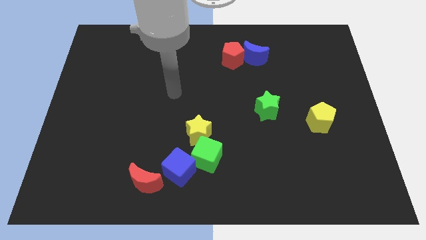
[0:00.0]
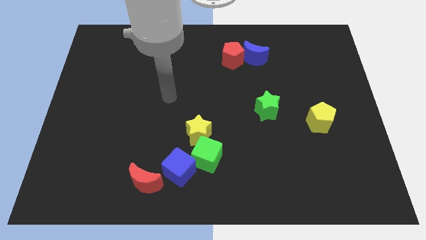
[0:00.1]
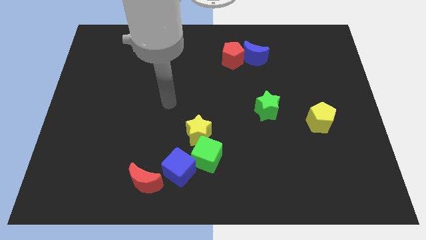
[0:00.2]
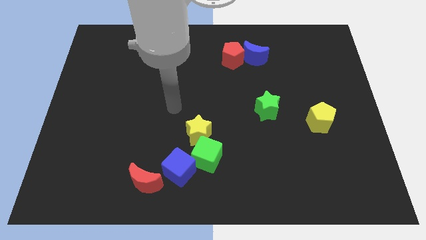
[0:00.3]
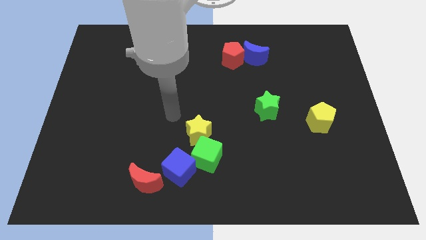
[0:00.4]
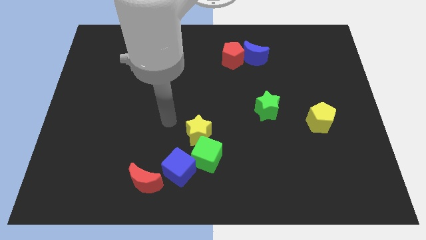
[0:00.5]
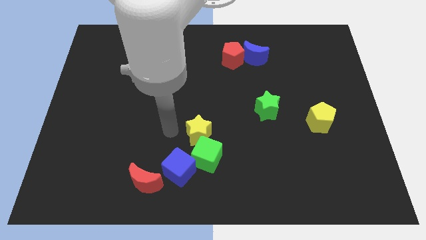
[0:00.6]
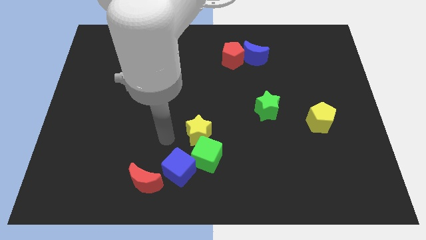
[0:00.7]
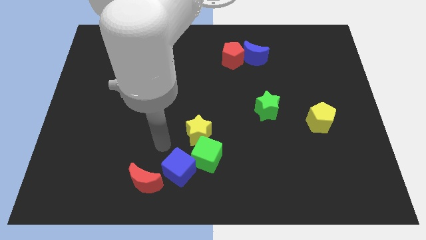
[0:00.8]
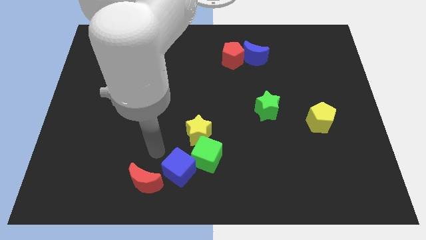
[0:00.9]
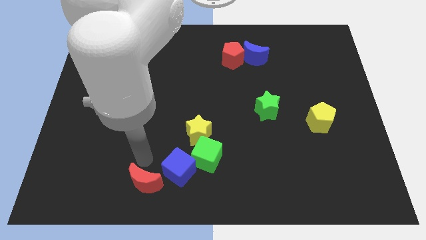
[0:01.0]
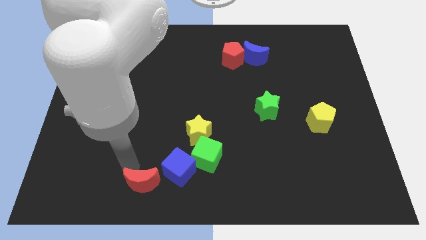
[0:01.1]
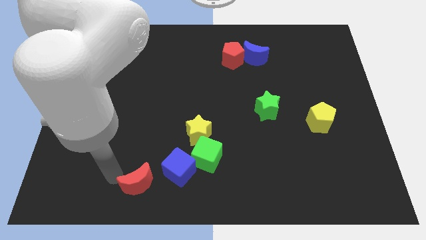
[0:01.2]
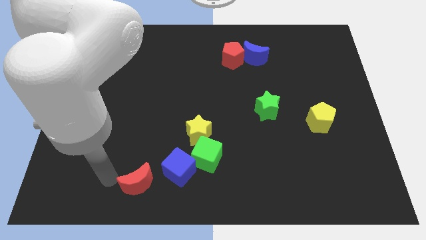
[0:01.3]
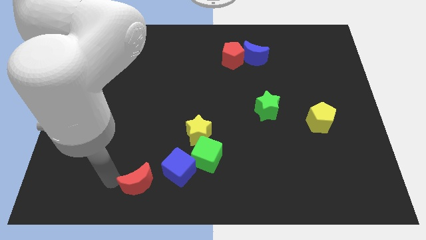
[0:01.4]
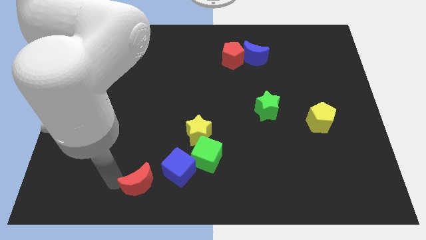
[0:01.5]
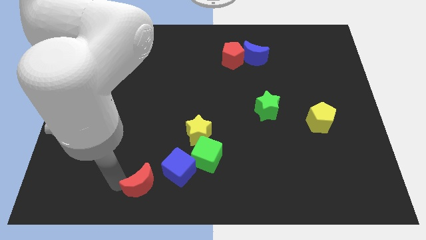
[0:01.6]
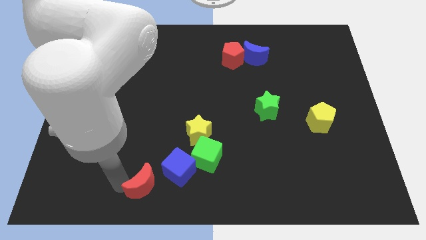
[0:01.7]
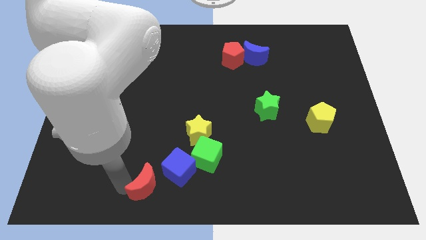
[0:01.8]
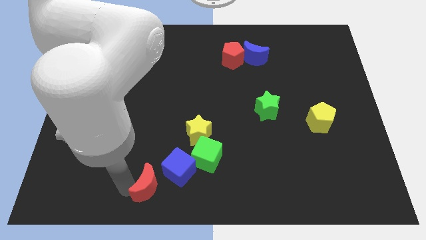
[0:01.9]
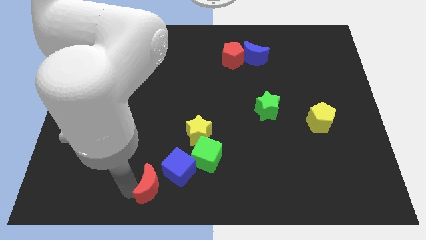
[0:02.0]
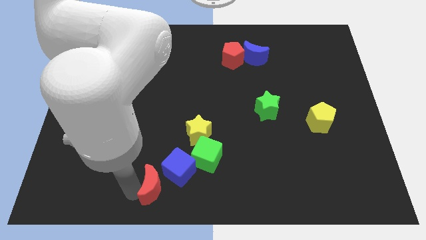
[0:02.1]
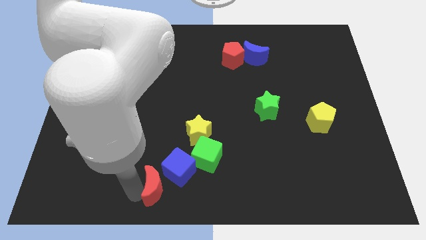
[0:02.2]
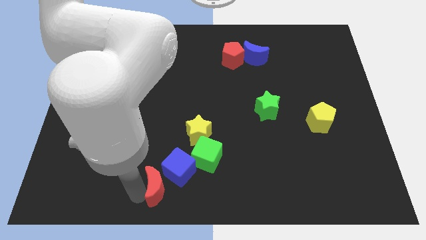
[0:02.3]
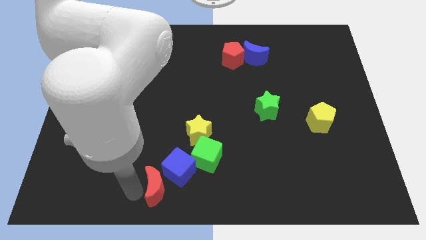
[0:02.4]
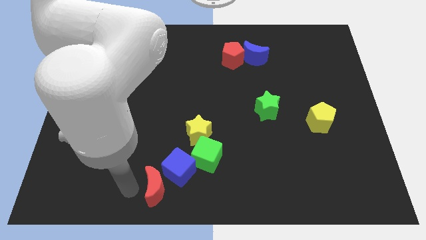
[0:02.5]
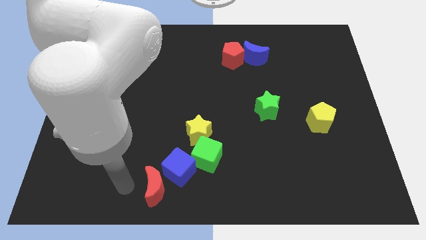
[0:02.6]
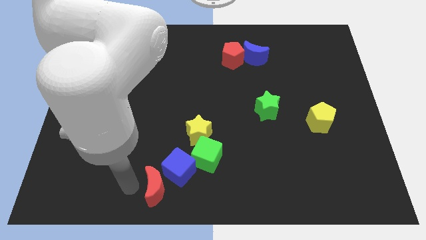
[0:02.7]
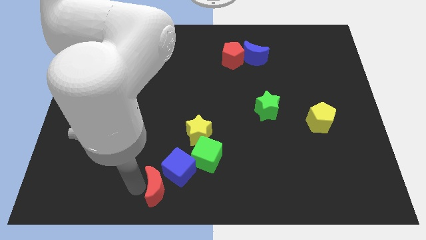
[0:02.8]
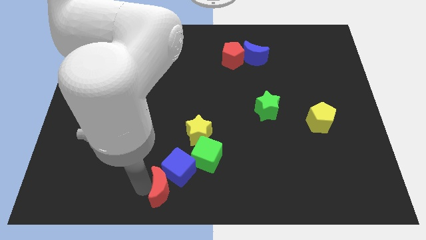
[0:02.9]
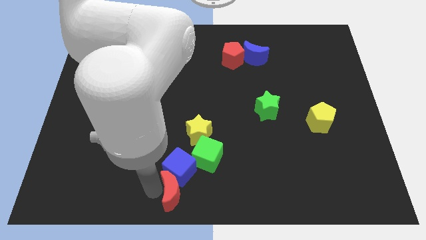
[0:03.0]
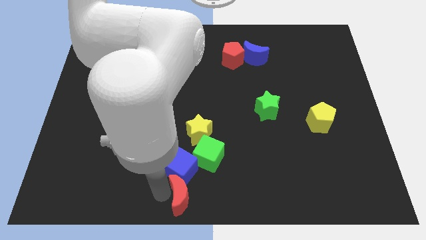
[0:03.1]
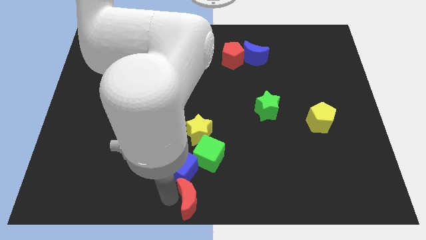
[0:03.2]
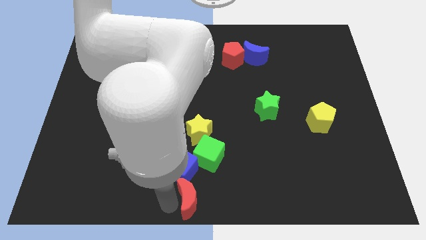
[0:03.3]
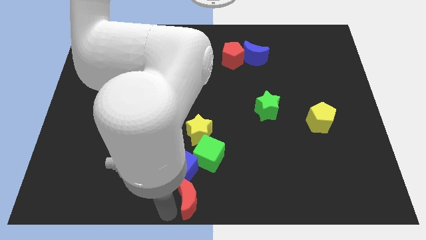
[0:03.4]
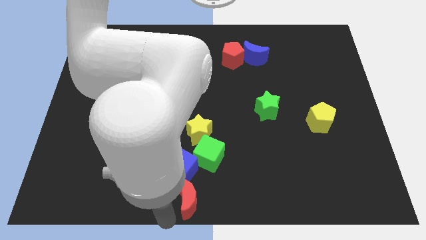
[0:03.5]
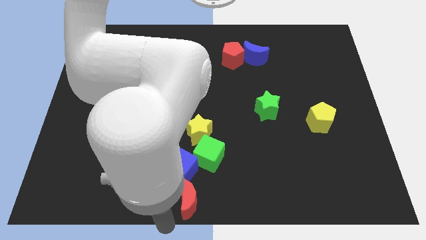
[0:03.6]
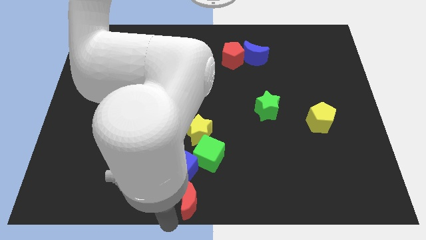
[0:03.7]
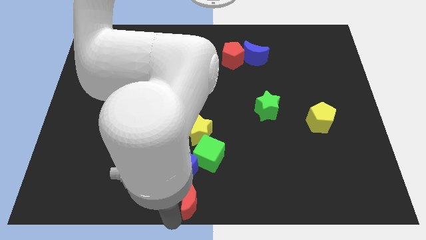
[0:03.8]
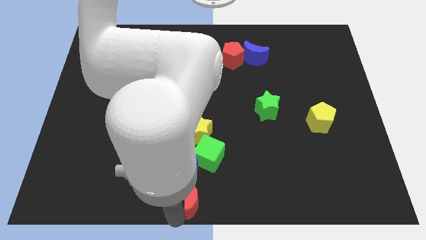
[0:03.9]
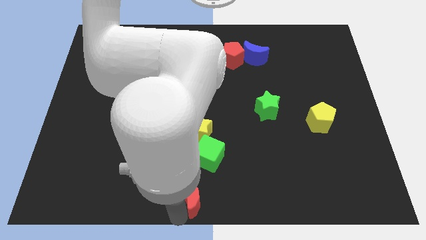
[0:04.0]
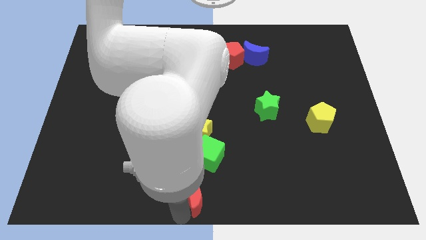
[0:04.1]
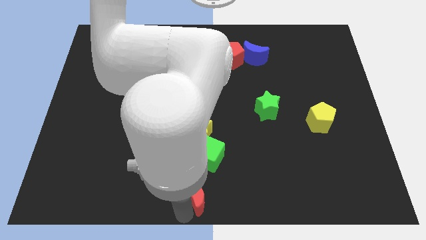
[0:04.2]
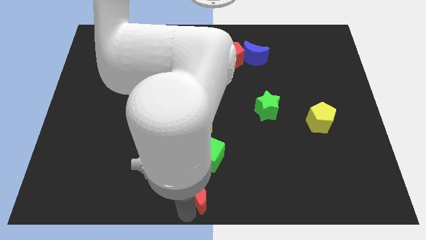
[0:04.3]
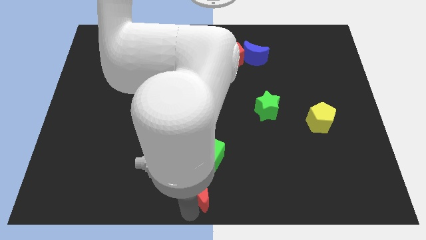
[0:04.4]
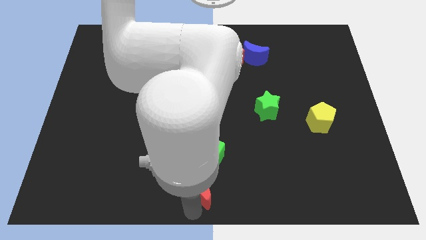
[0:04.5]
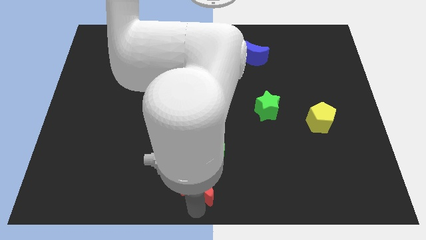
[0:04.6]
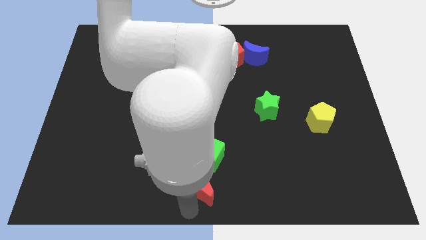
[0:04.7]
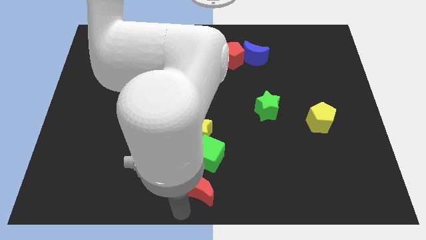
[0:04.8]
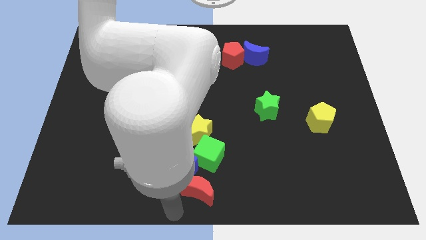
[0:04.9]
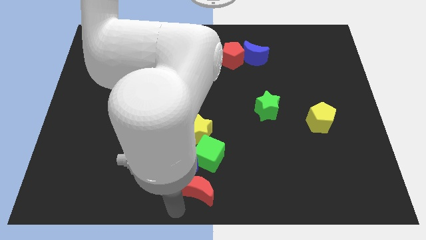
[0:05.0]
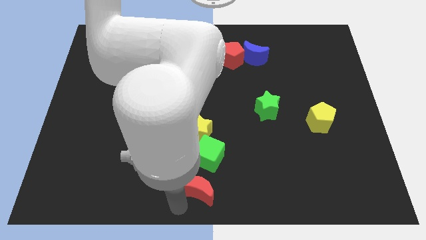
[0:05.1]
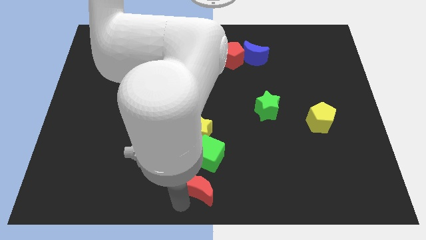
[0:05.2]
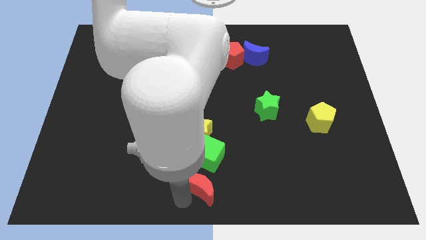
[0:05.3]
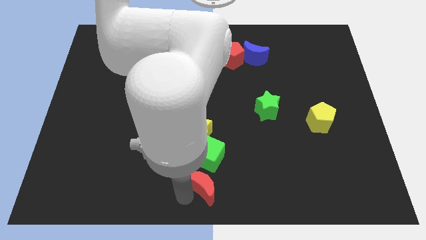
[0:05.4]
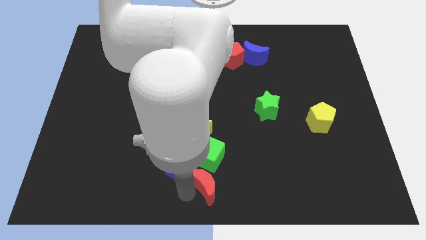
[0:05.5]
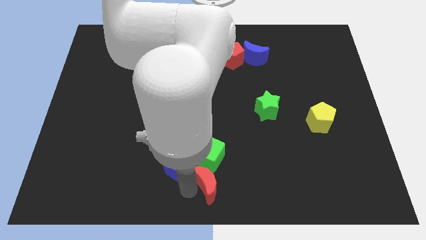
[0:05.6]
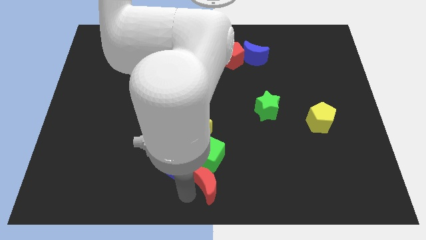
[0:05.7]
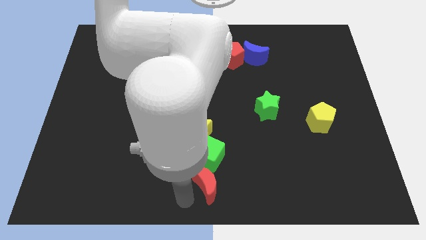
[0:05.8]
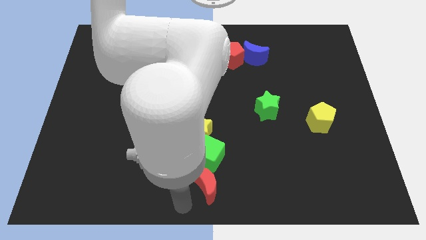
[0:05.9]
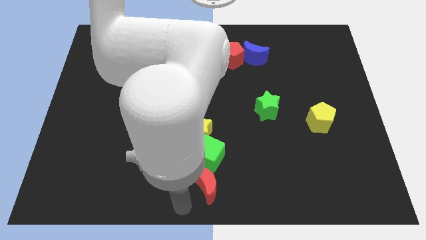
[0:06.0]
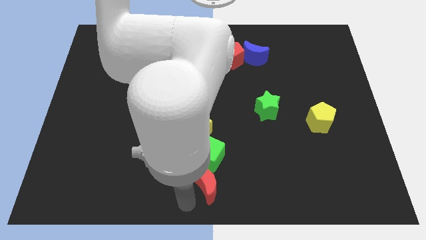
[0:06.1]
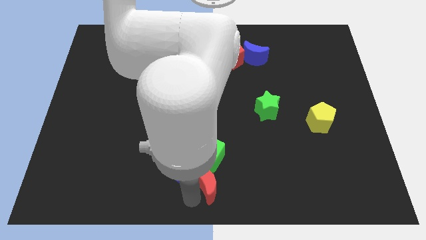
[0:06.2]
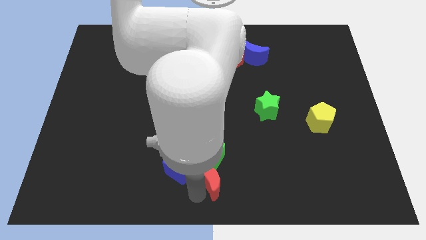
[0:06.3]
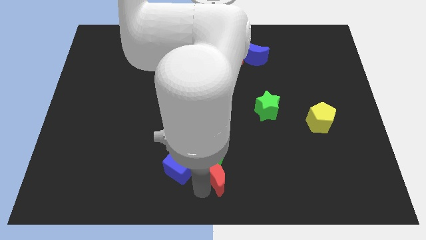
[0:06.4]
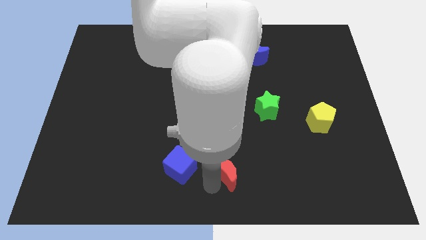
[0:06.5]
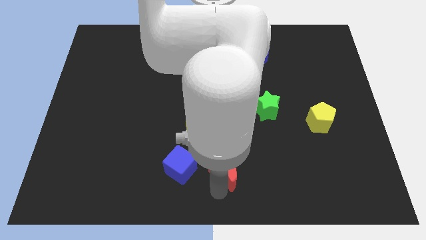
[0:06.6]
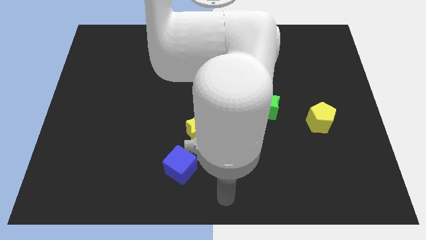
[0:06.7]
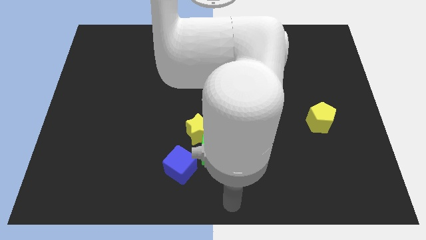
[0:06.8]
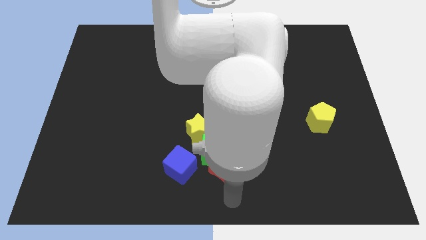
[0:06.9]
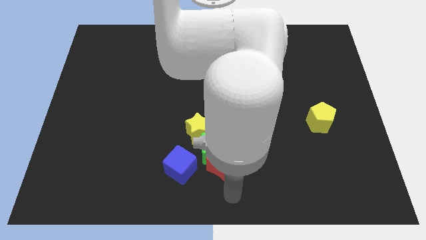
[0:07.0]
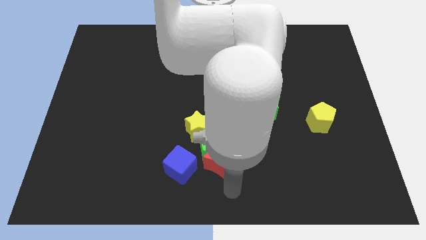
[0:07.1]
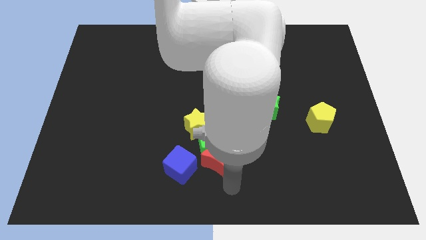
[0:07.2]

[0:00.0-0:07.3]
put the red moon to the top right side of the blue cube
